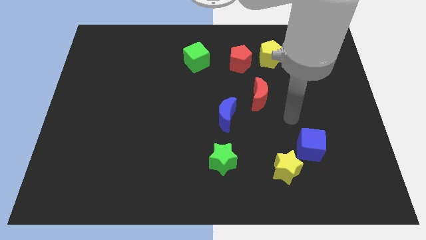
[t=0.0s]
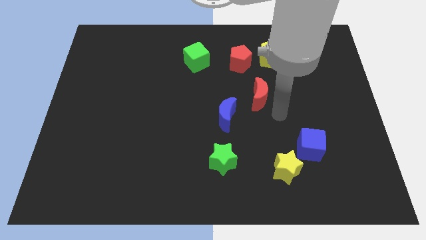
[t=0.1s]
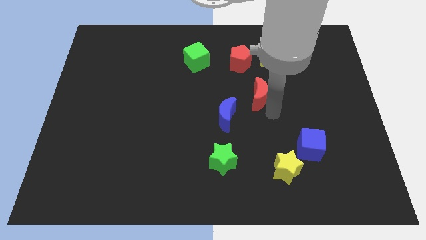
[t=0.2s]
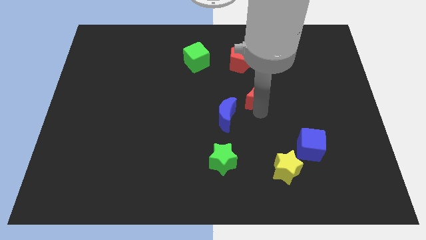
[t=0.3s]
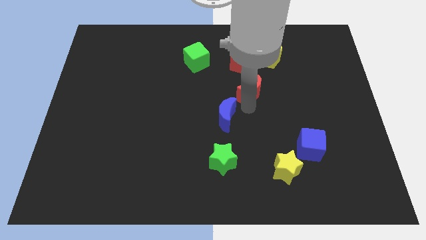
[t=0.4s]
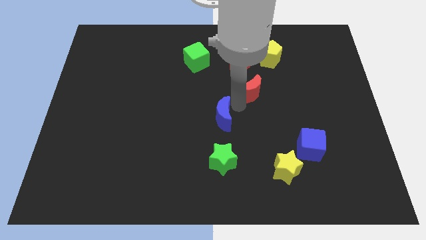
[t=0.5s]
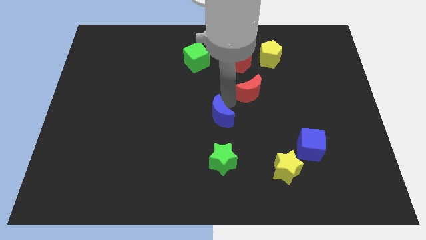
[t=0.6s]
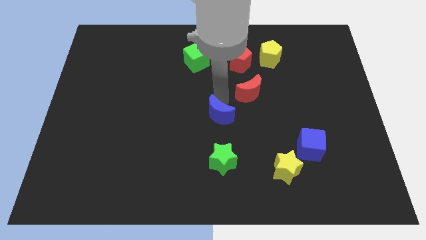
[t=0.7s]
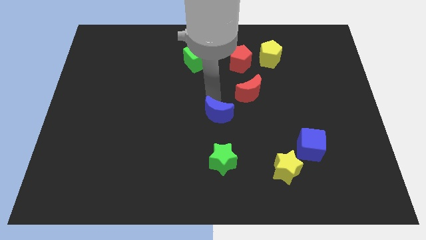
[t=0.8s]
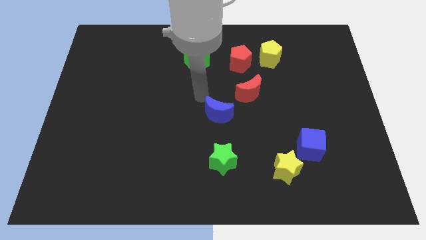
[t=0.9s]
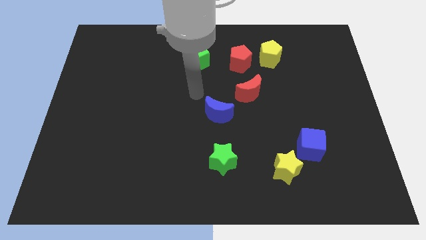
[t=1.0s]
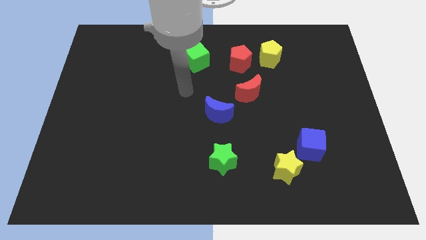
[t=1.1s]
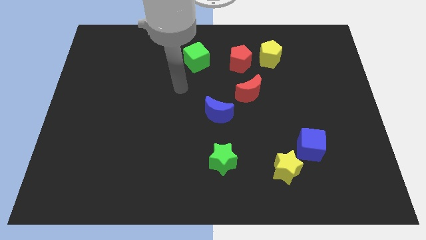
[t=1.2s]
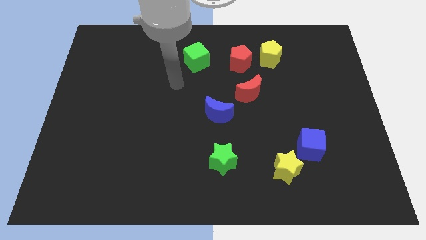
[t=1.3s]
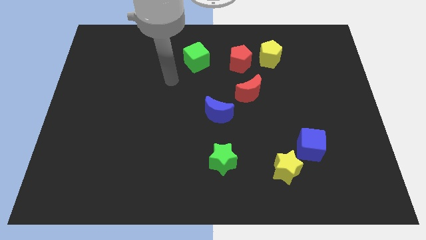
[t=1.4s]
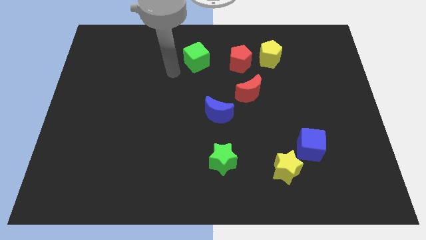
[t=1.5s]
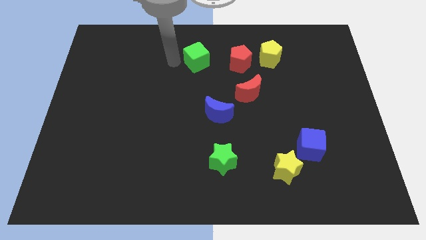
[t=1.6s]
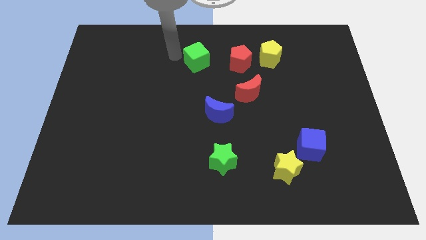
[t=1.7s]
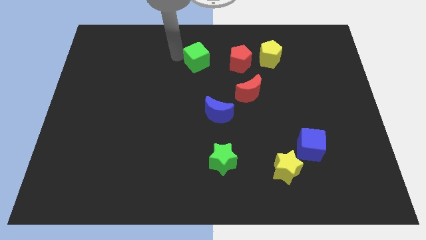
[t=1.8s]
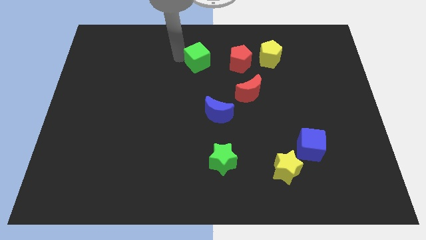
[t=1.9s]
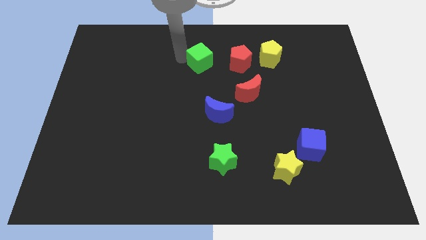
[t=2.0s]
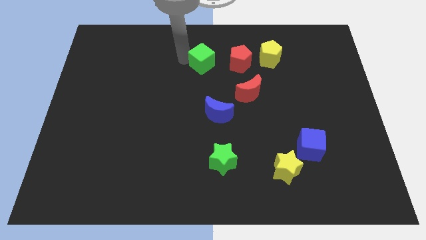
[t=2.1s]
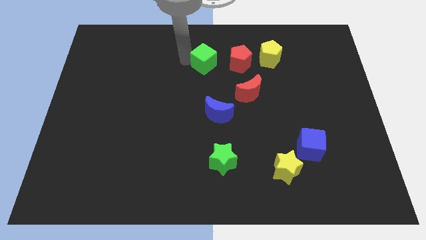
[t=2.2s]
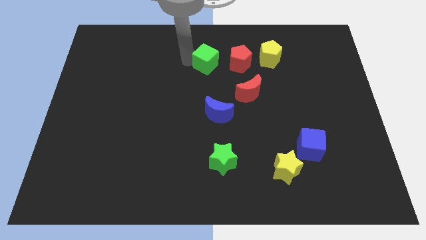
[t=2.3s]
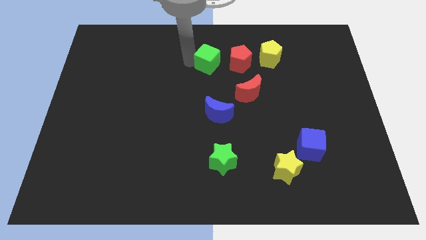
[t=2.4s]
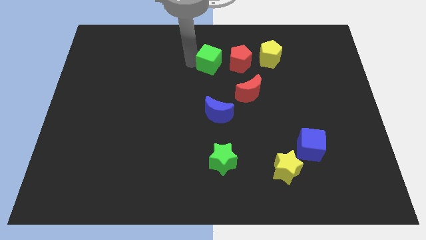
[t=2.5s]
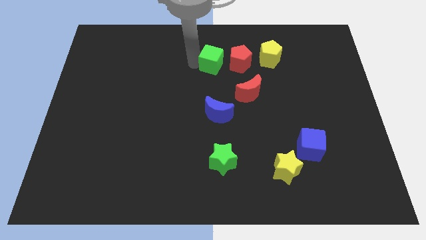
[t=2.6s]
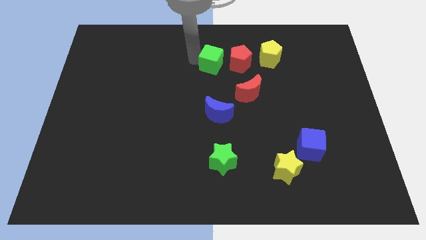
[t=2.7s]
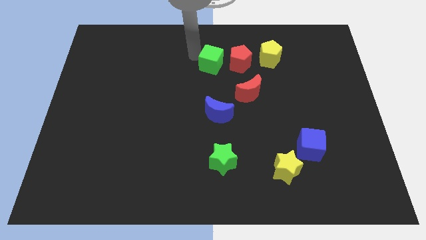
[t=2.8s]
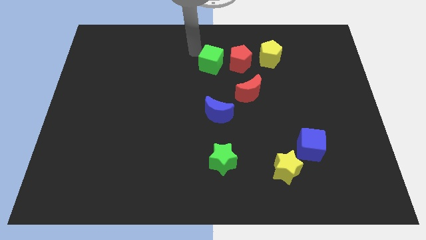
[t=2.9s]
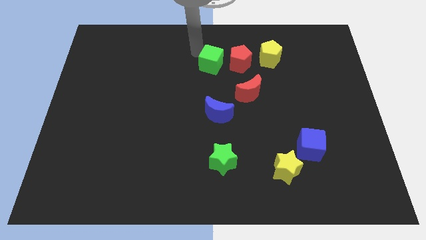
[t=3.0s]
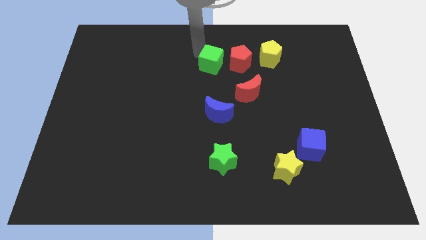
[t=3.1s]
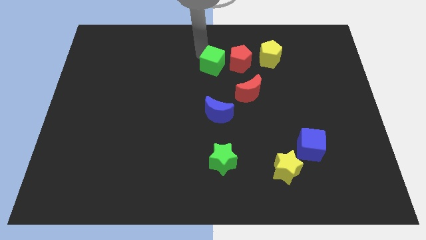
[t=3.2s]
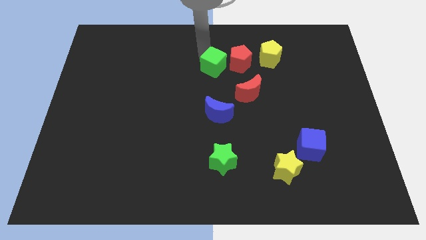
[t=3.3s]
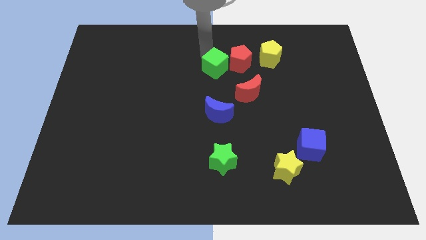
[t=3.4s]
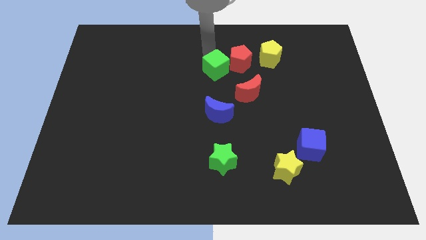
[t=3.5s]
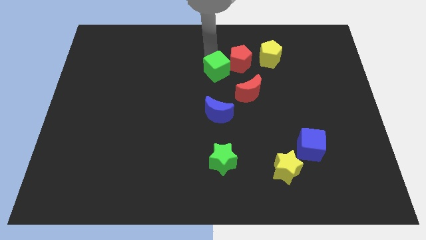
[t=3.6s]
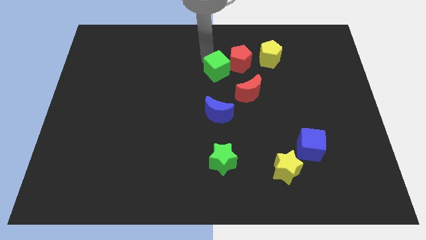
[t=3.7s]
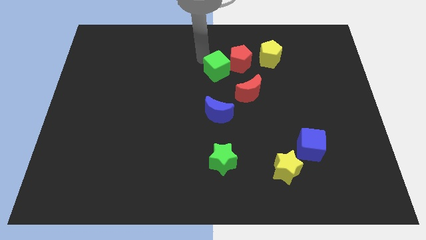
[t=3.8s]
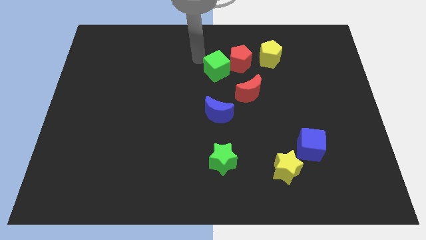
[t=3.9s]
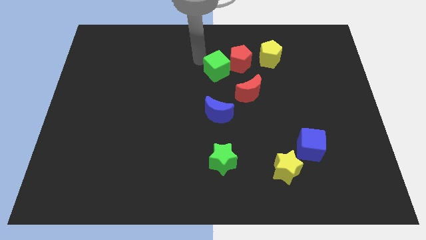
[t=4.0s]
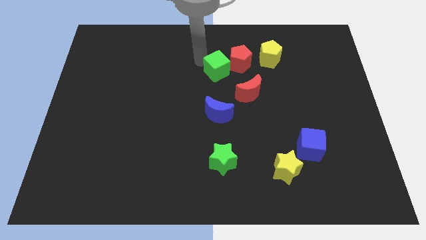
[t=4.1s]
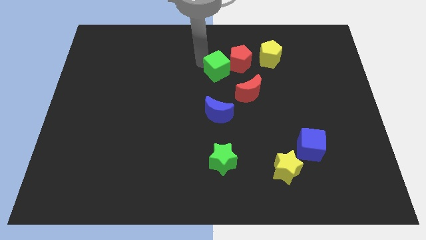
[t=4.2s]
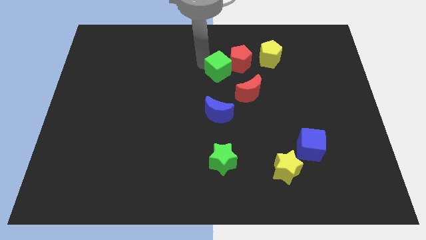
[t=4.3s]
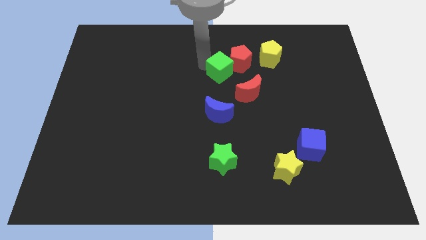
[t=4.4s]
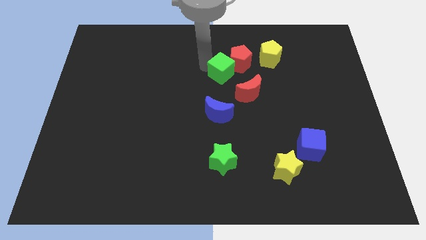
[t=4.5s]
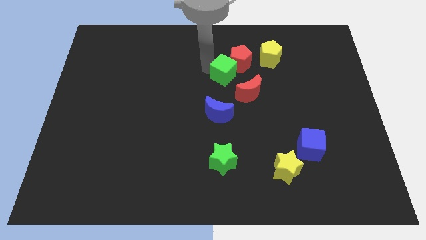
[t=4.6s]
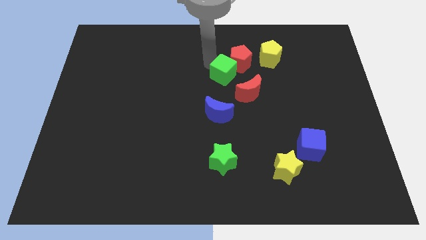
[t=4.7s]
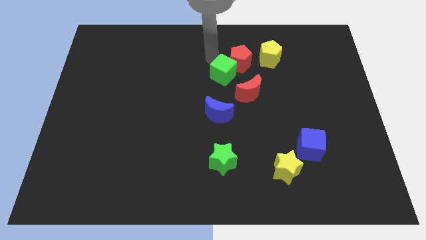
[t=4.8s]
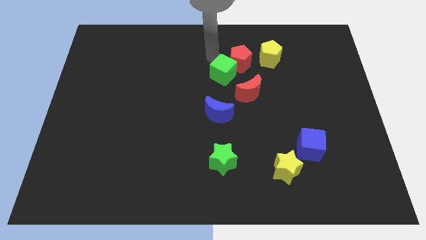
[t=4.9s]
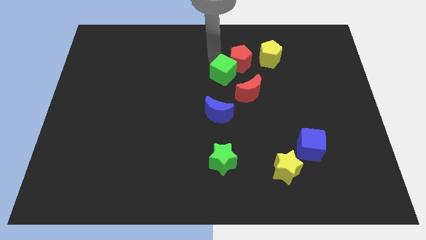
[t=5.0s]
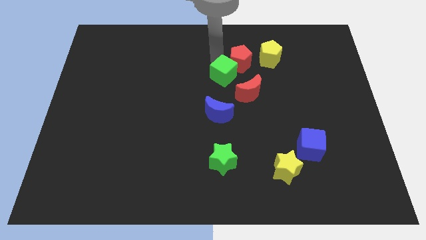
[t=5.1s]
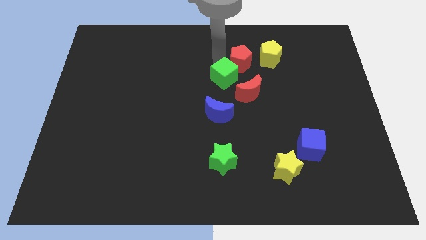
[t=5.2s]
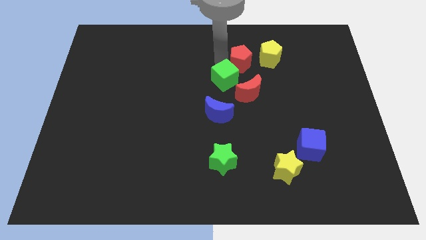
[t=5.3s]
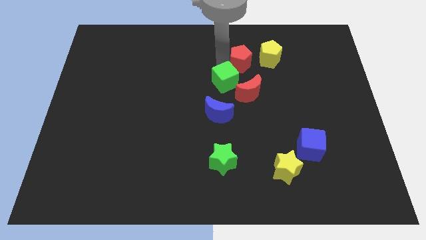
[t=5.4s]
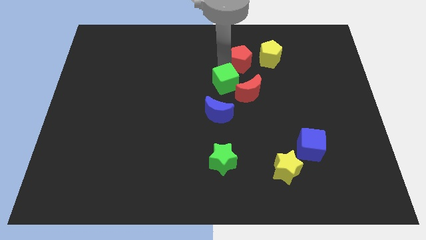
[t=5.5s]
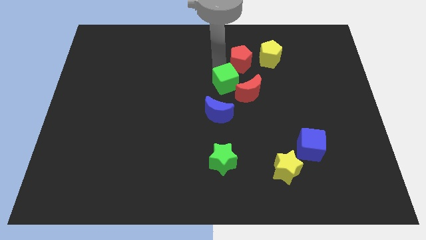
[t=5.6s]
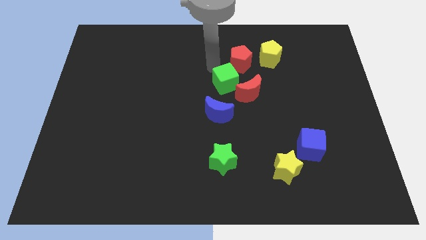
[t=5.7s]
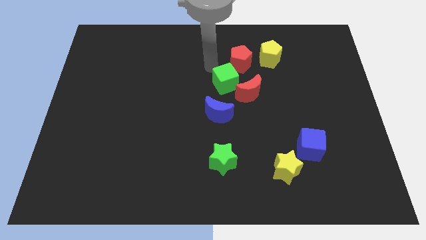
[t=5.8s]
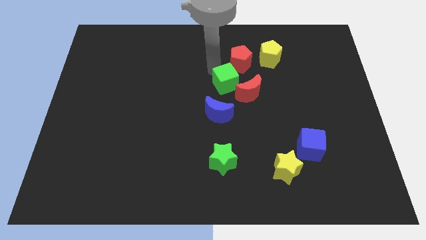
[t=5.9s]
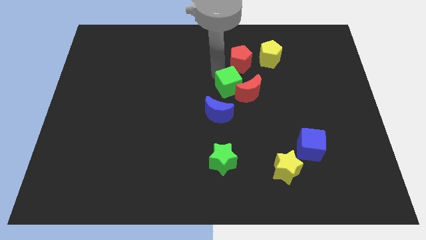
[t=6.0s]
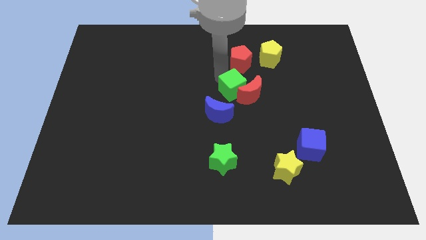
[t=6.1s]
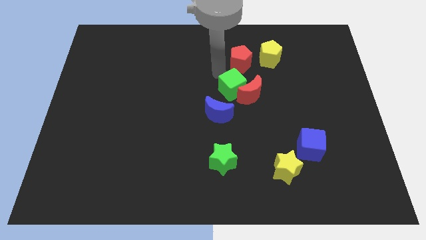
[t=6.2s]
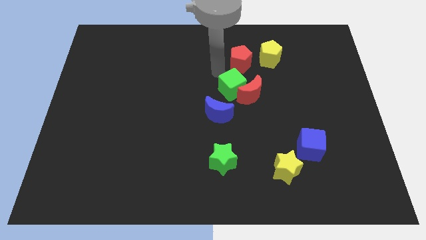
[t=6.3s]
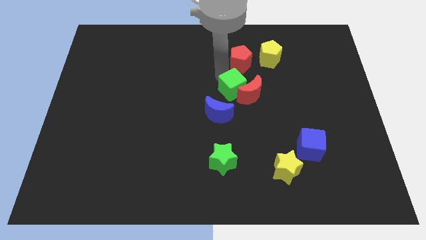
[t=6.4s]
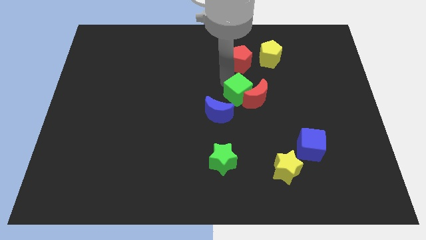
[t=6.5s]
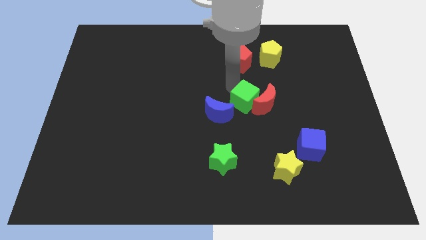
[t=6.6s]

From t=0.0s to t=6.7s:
put the green cube to the right side of the blue moon
